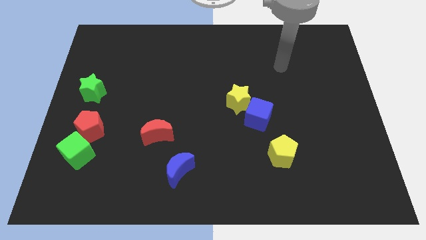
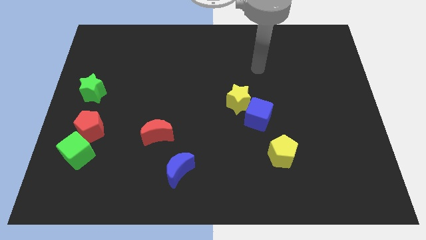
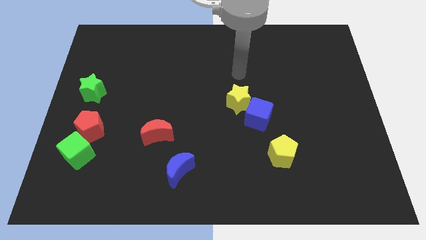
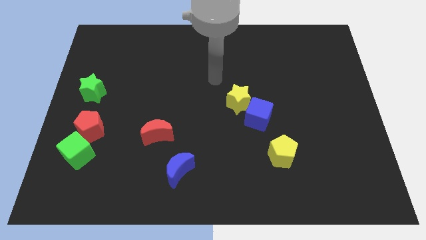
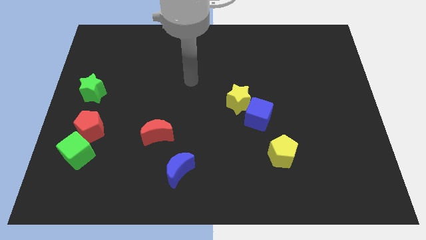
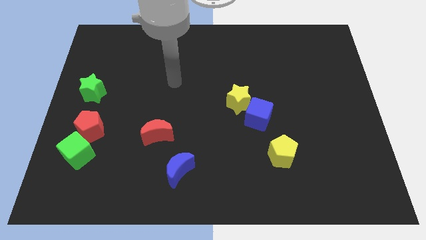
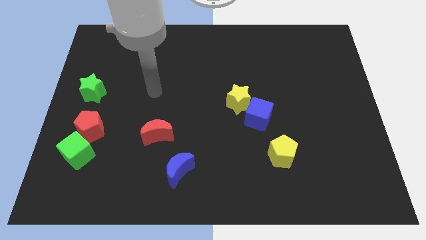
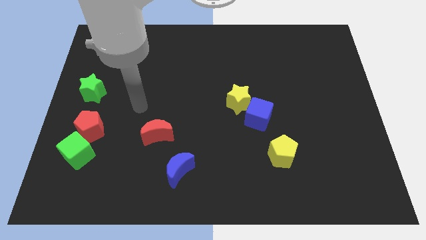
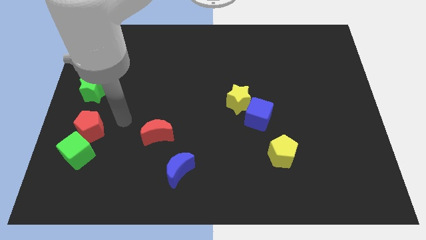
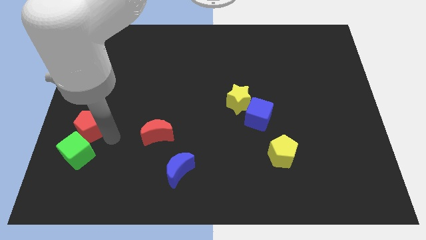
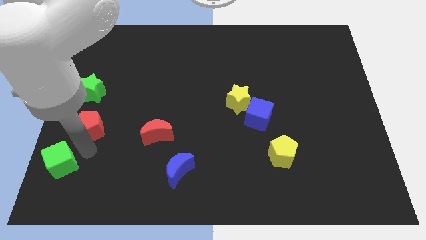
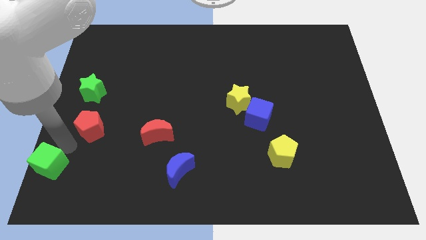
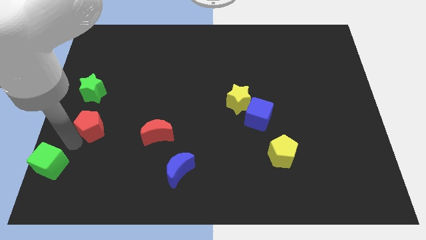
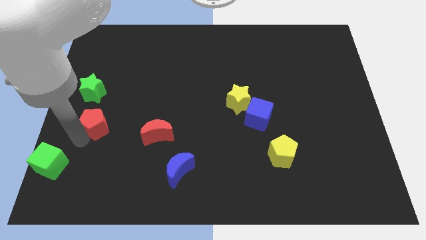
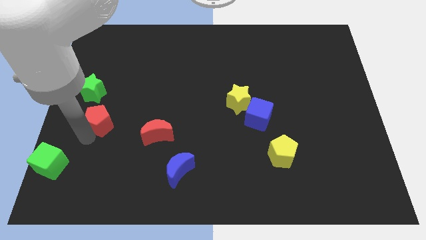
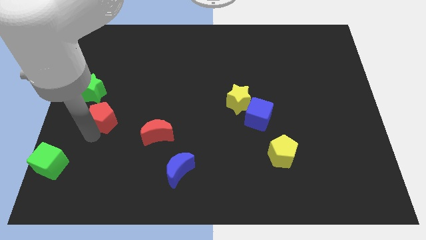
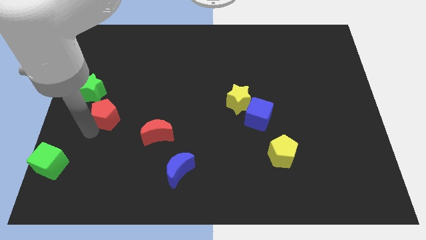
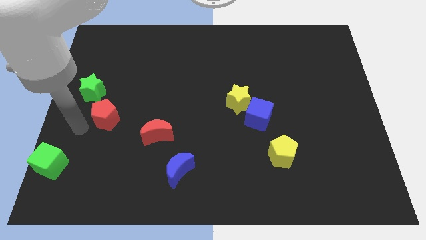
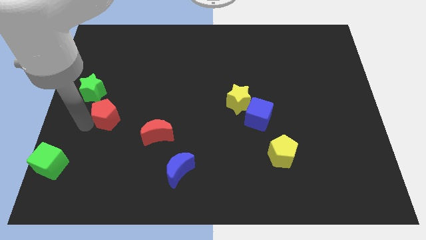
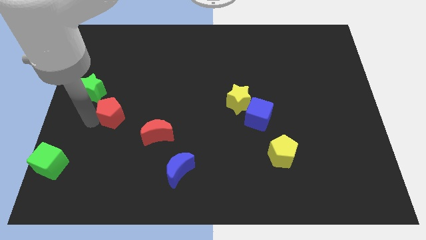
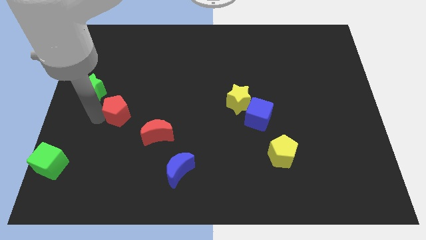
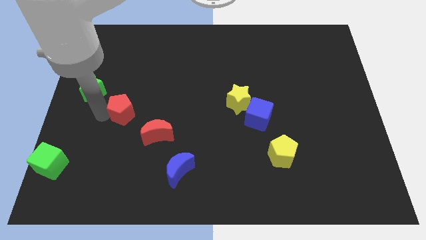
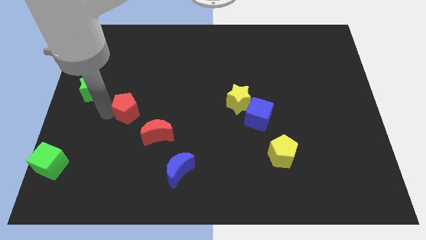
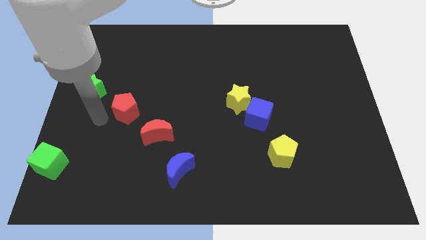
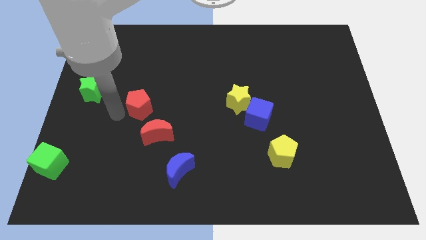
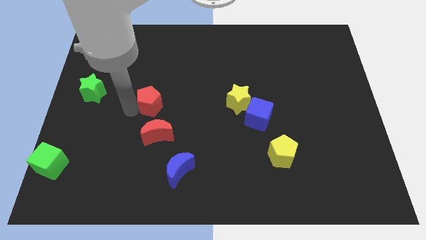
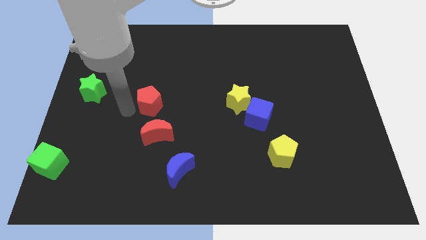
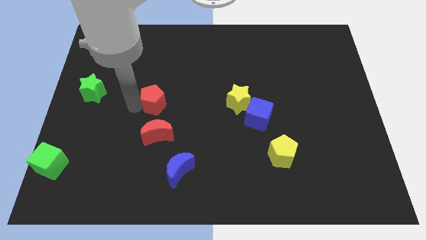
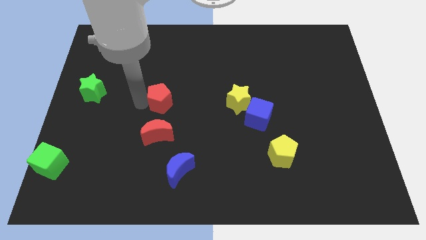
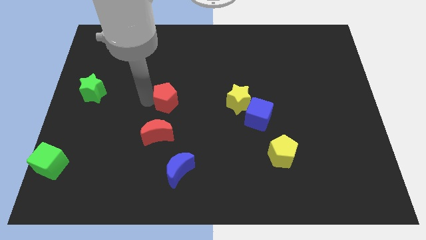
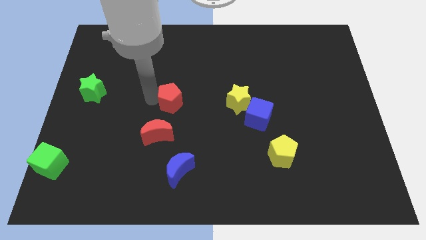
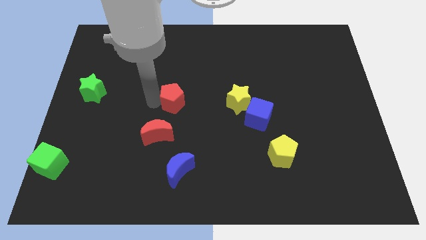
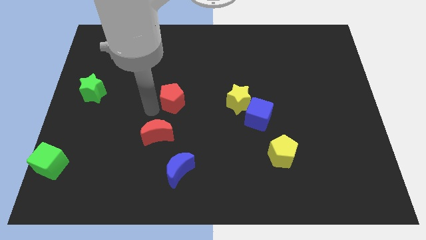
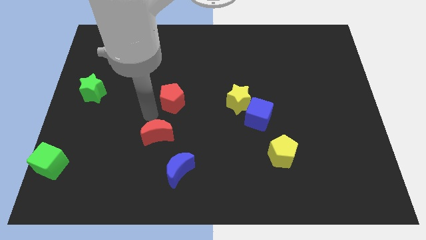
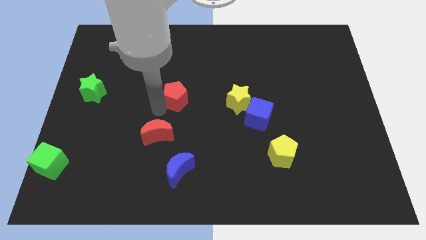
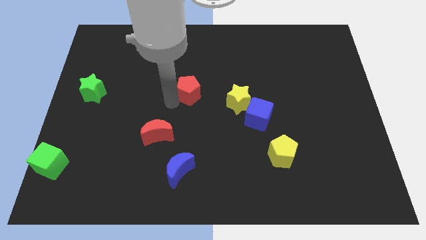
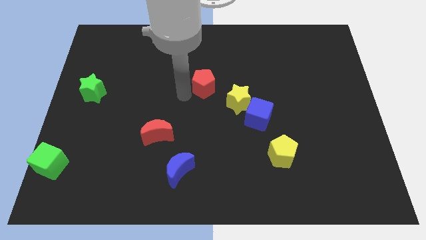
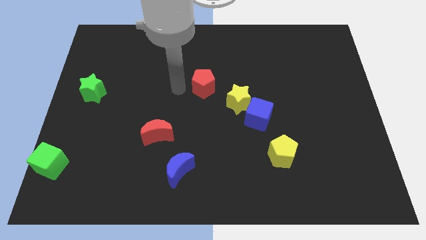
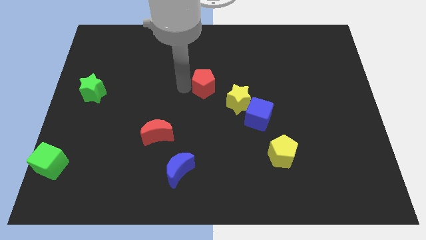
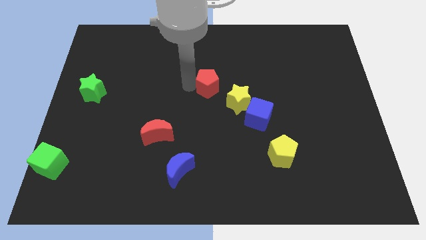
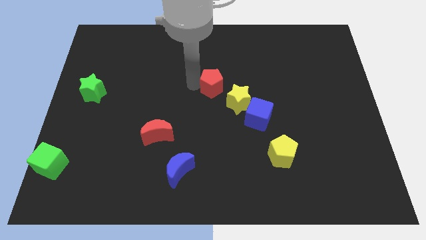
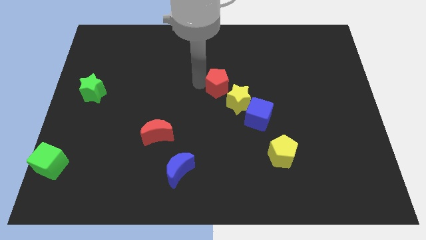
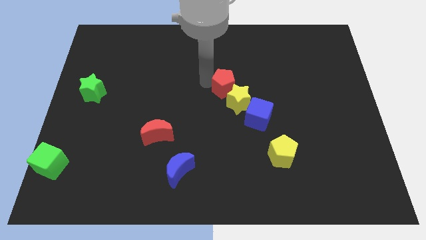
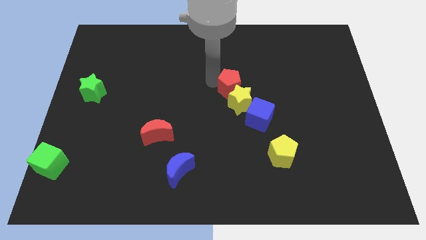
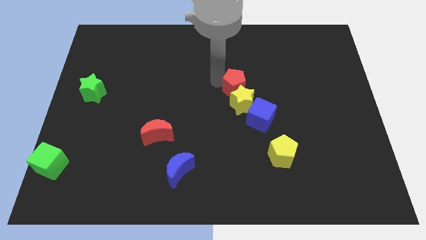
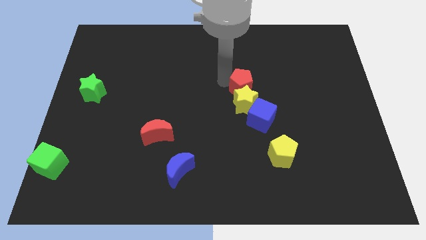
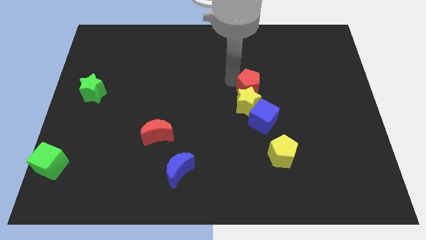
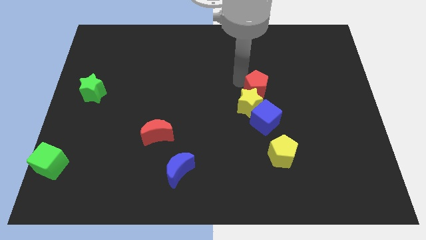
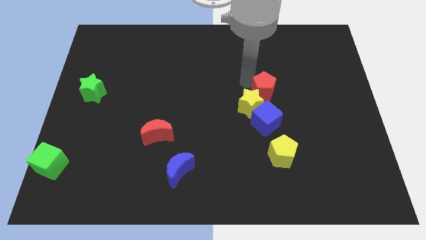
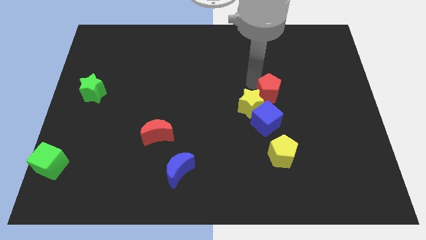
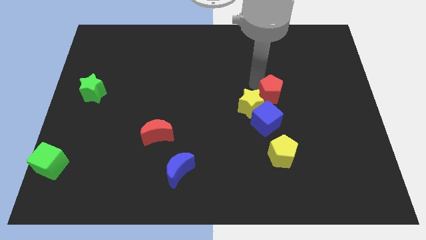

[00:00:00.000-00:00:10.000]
push the red pentagon to the top right side of the blue cube
